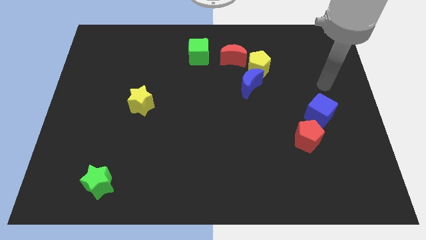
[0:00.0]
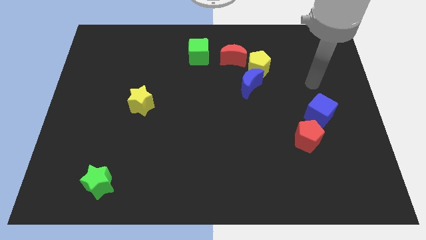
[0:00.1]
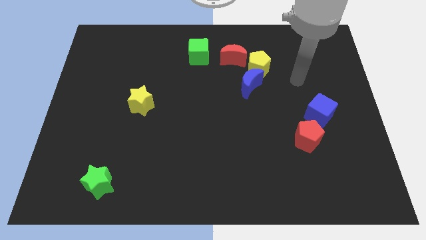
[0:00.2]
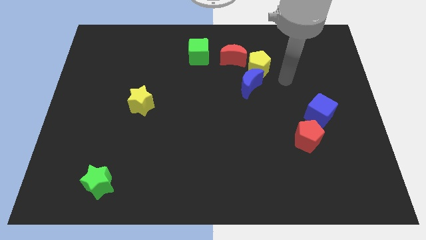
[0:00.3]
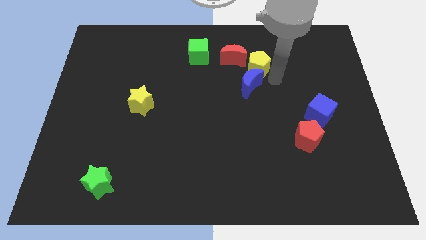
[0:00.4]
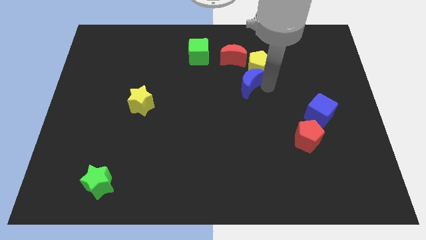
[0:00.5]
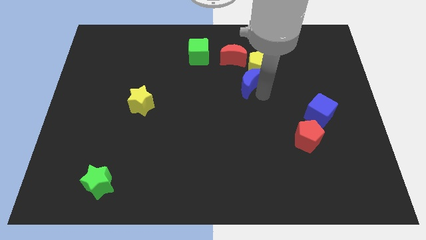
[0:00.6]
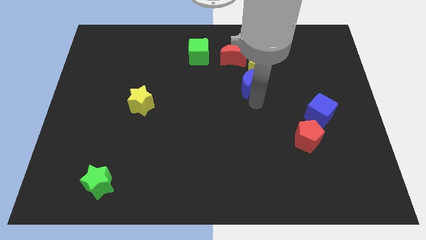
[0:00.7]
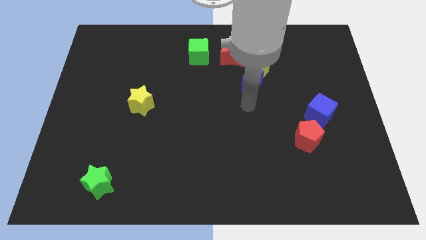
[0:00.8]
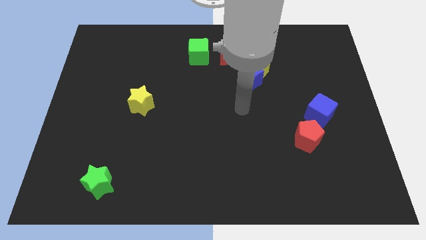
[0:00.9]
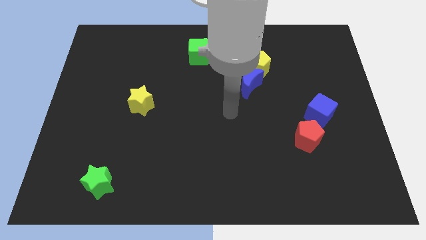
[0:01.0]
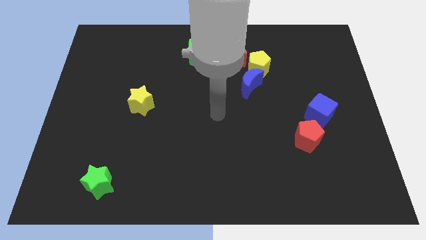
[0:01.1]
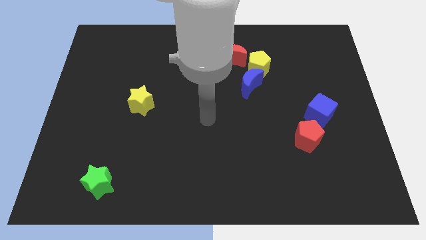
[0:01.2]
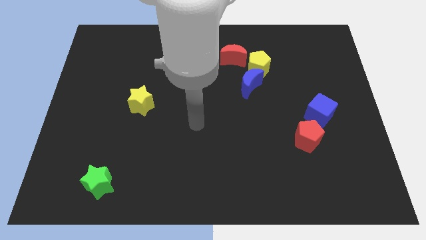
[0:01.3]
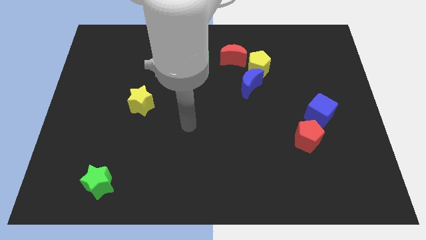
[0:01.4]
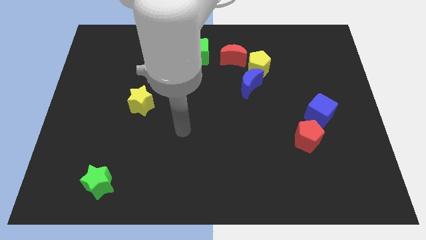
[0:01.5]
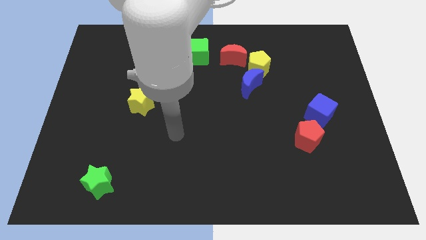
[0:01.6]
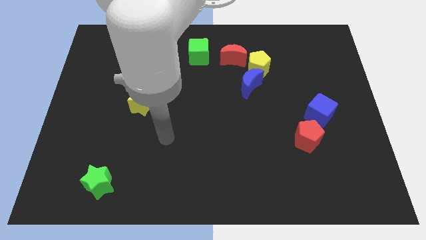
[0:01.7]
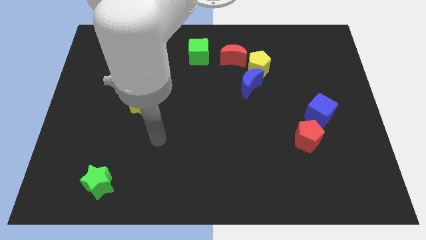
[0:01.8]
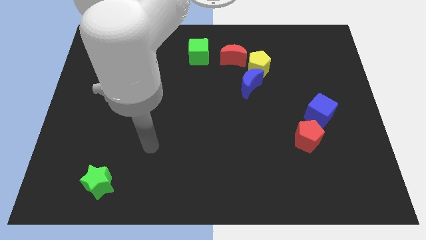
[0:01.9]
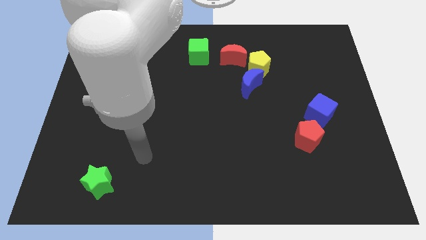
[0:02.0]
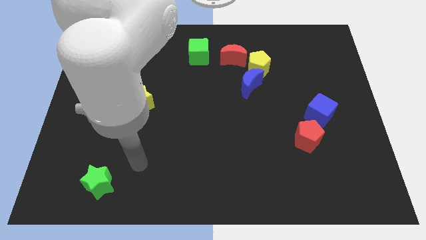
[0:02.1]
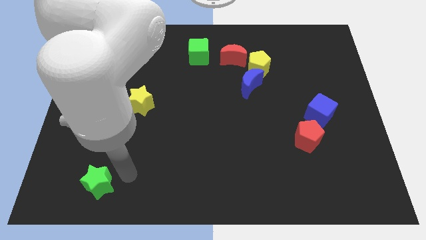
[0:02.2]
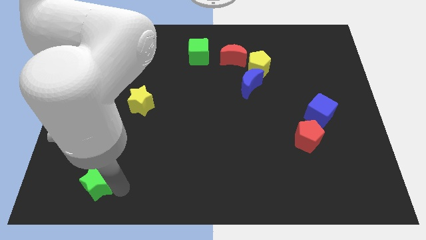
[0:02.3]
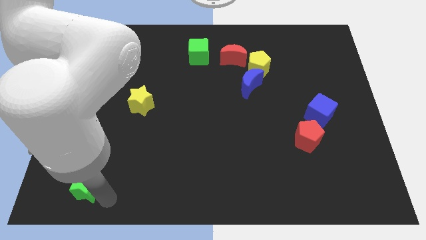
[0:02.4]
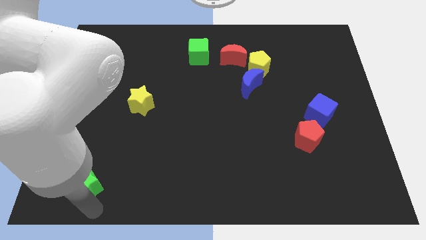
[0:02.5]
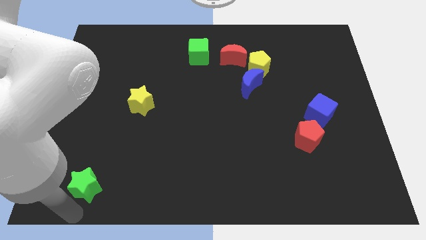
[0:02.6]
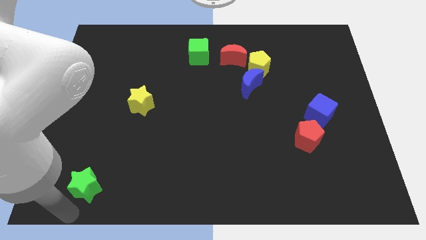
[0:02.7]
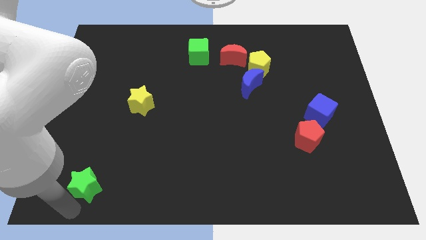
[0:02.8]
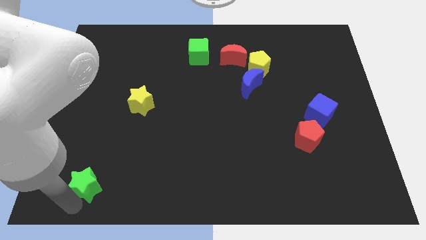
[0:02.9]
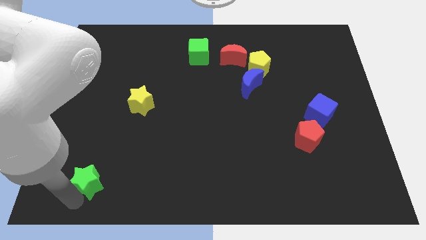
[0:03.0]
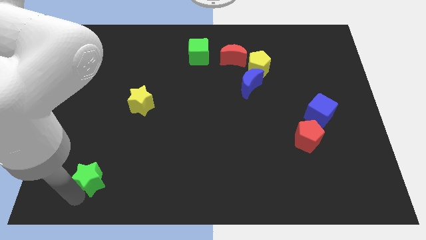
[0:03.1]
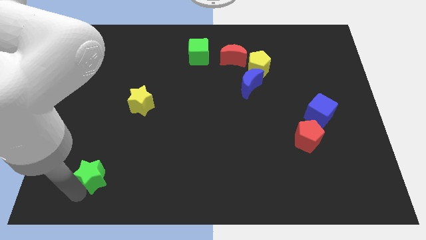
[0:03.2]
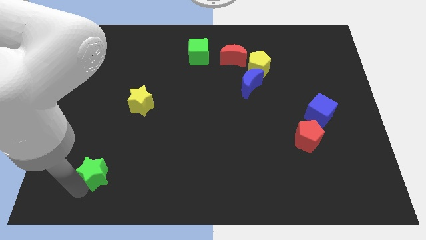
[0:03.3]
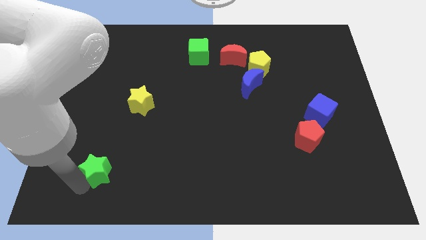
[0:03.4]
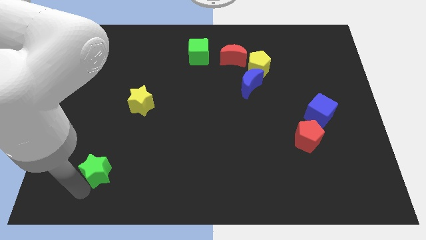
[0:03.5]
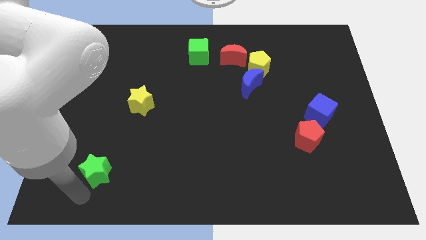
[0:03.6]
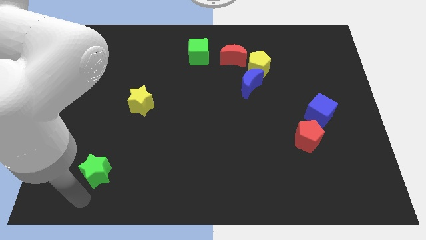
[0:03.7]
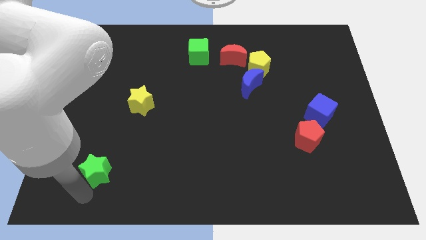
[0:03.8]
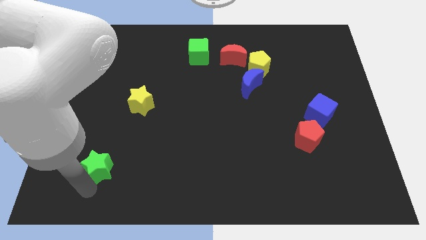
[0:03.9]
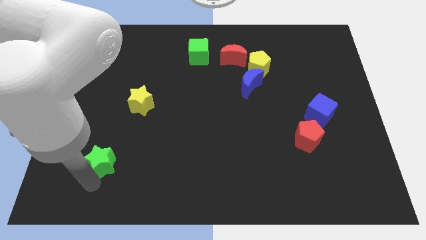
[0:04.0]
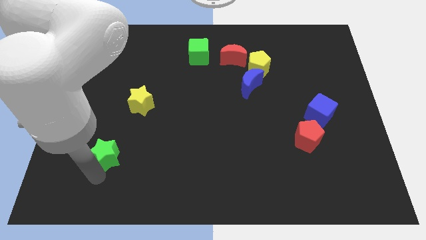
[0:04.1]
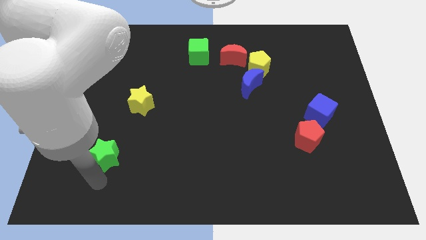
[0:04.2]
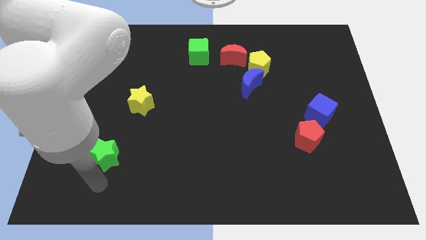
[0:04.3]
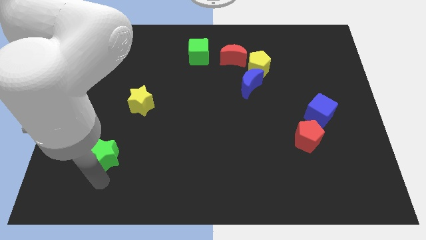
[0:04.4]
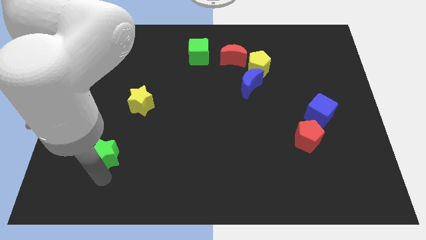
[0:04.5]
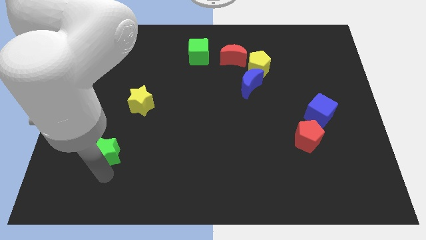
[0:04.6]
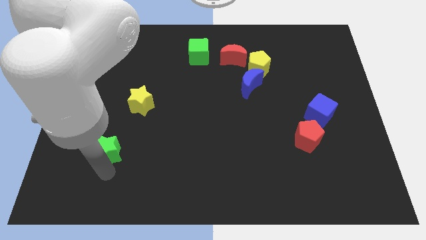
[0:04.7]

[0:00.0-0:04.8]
push the green star a little bit up

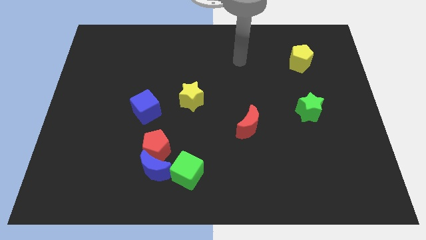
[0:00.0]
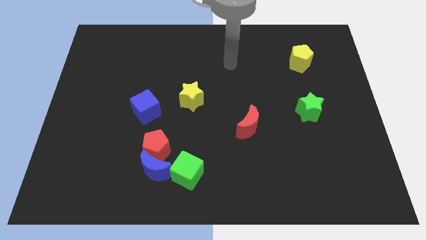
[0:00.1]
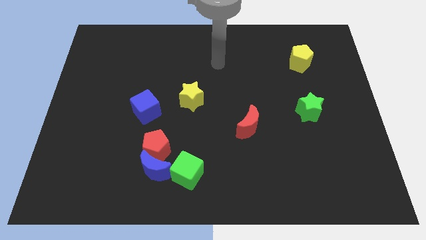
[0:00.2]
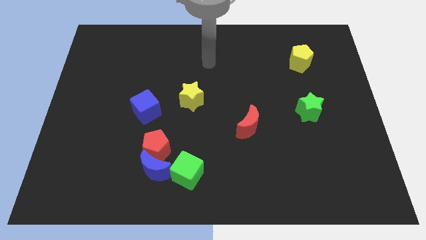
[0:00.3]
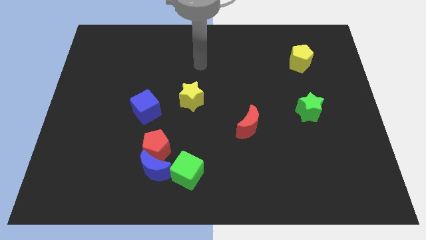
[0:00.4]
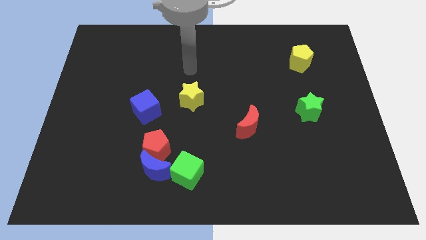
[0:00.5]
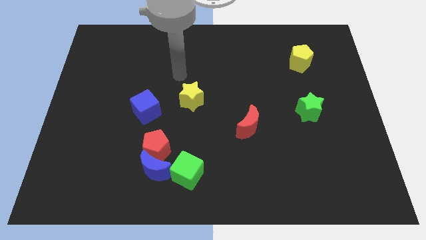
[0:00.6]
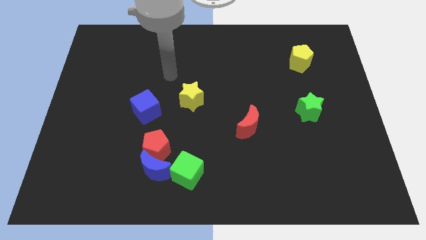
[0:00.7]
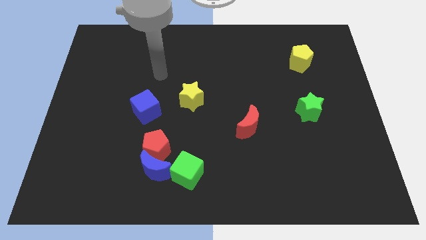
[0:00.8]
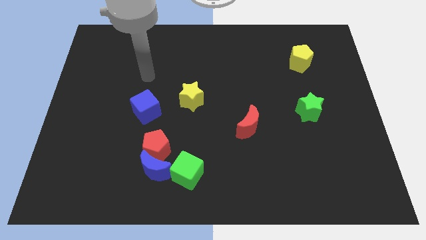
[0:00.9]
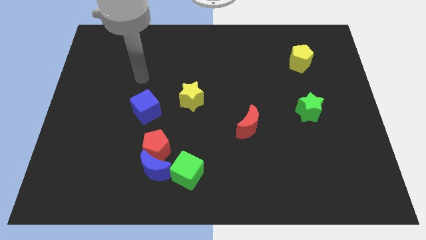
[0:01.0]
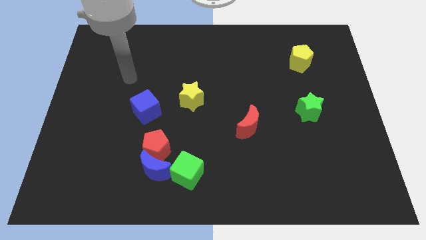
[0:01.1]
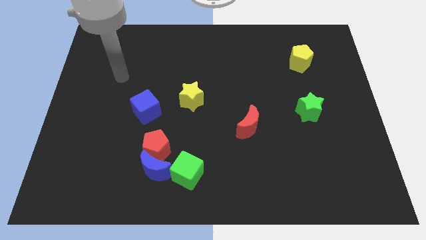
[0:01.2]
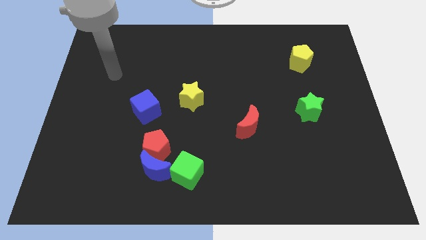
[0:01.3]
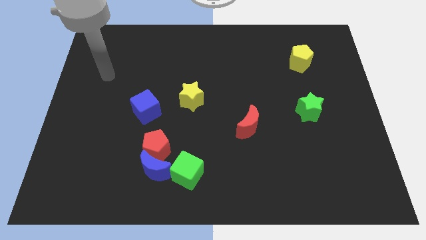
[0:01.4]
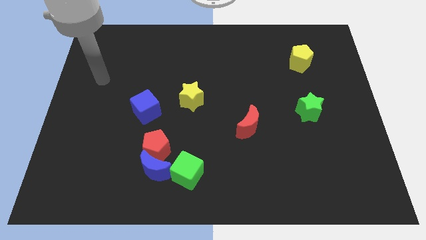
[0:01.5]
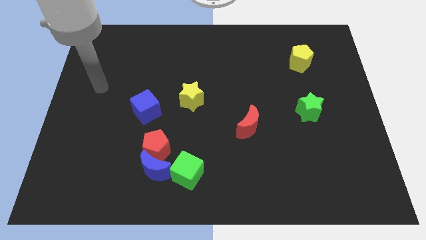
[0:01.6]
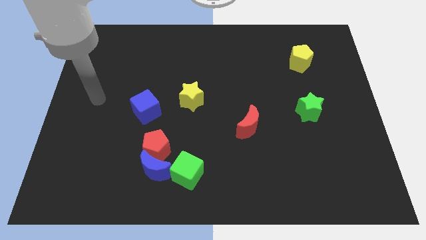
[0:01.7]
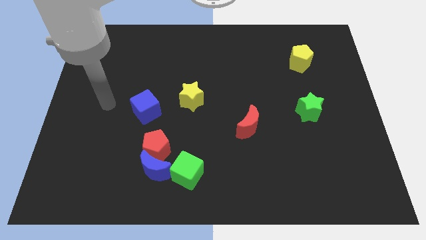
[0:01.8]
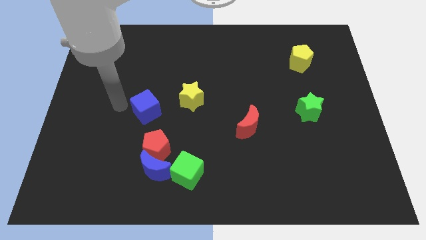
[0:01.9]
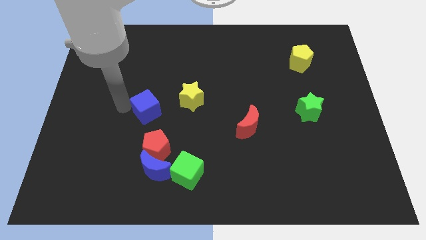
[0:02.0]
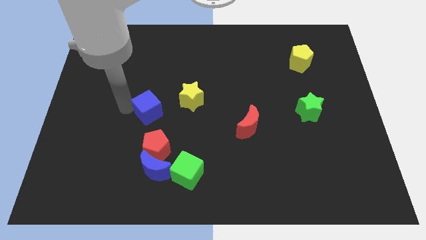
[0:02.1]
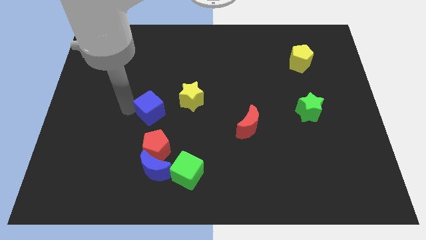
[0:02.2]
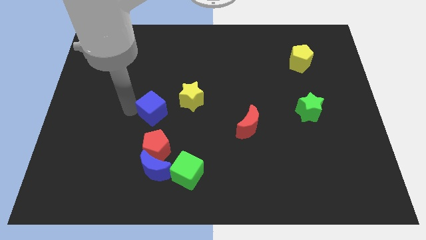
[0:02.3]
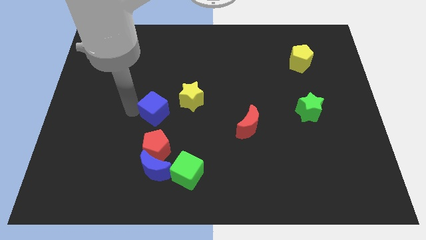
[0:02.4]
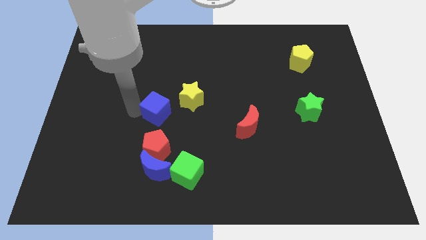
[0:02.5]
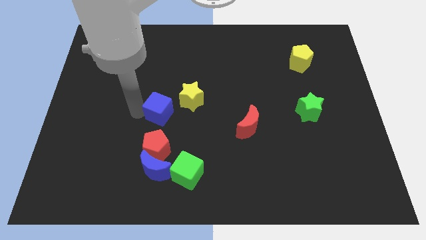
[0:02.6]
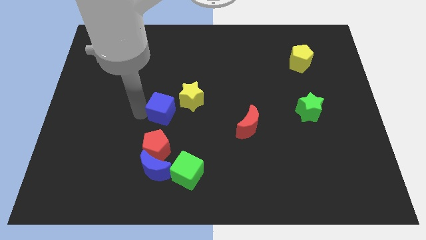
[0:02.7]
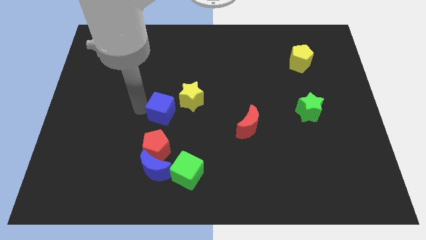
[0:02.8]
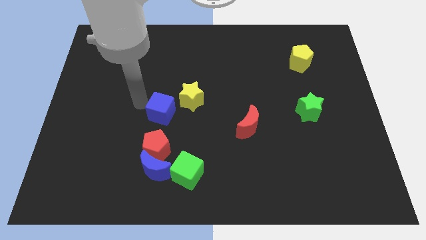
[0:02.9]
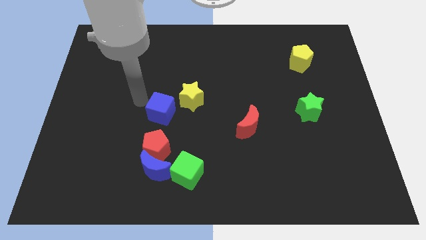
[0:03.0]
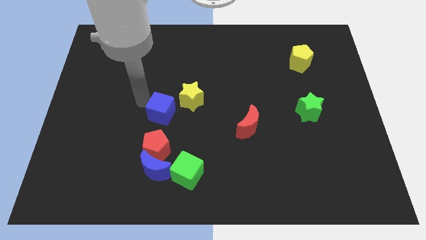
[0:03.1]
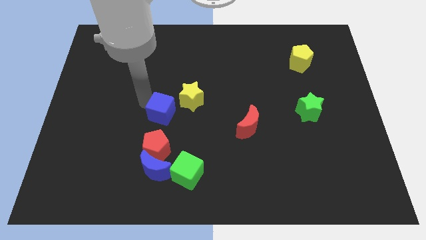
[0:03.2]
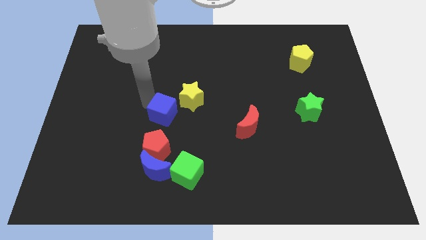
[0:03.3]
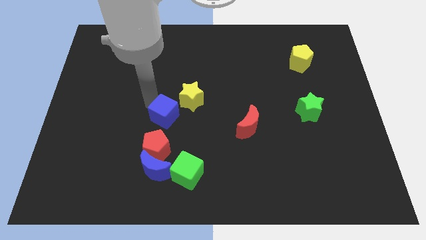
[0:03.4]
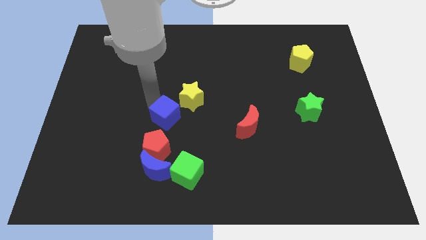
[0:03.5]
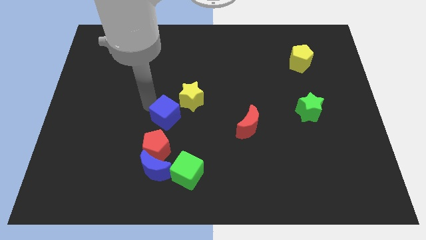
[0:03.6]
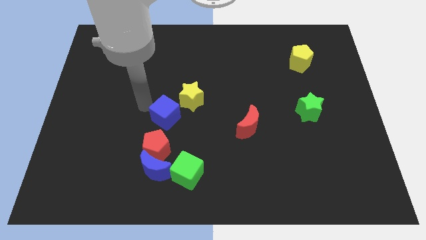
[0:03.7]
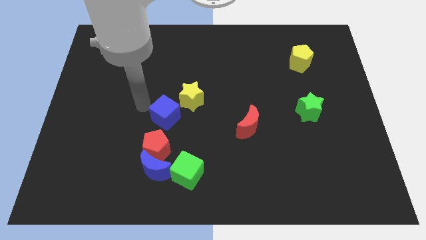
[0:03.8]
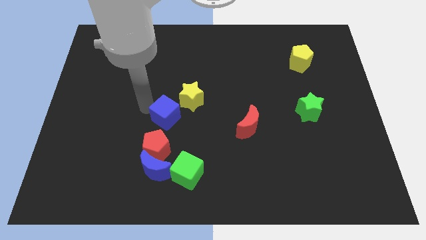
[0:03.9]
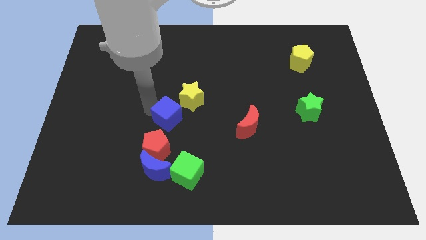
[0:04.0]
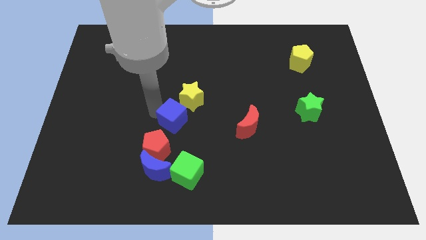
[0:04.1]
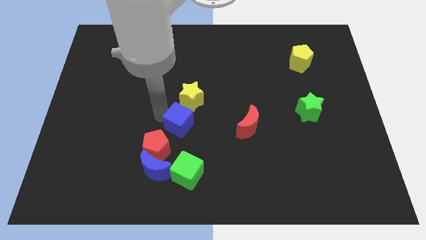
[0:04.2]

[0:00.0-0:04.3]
slide the blue cube a little bit right
